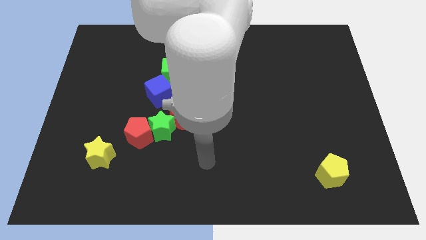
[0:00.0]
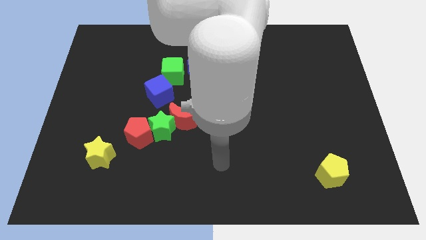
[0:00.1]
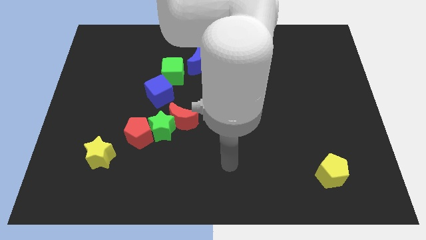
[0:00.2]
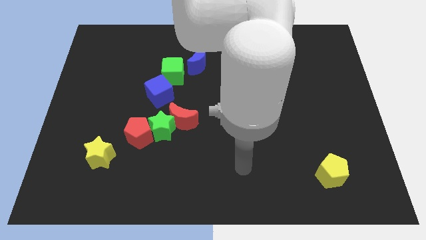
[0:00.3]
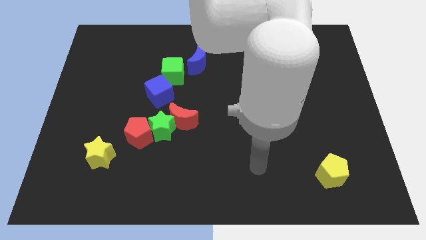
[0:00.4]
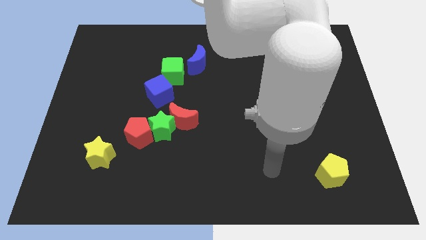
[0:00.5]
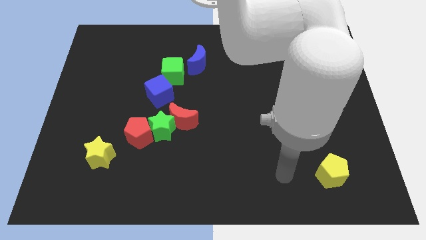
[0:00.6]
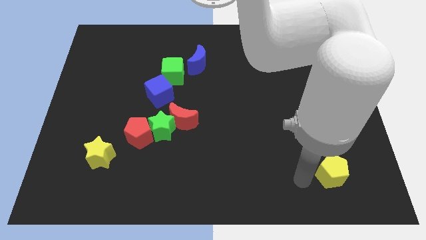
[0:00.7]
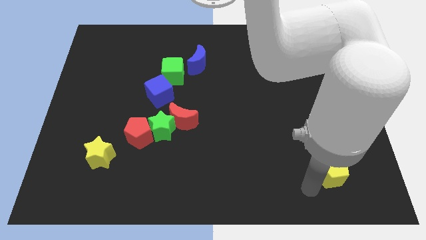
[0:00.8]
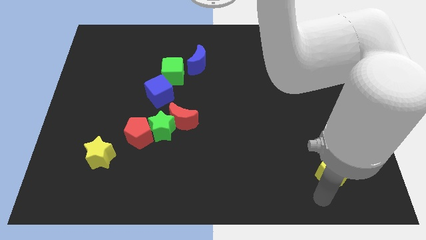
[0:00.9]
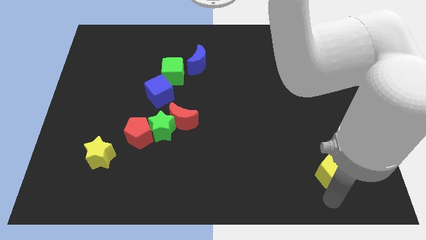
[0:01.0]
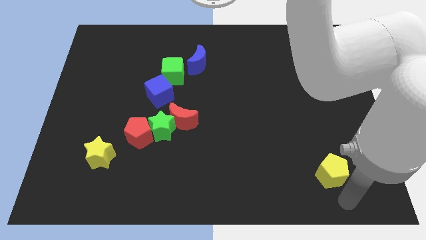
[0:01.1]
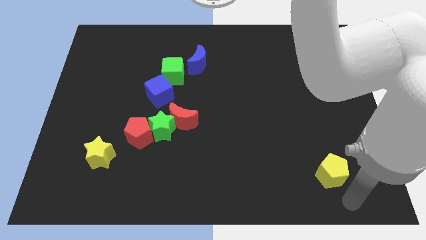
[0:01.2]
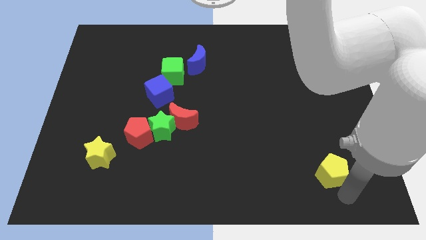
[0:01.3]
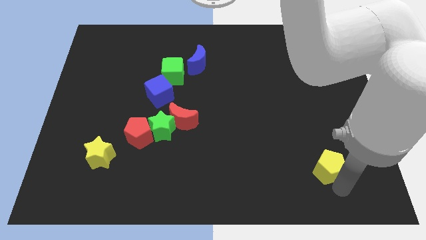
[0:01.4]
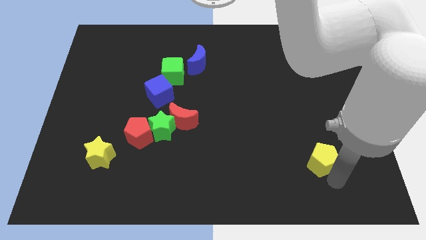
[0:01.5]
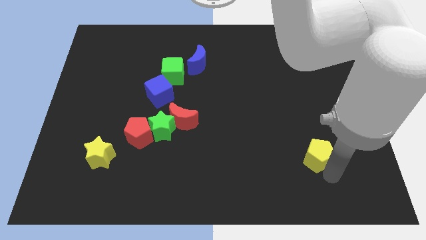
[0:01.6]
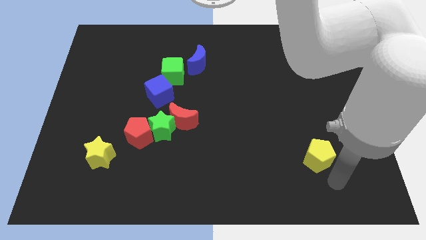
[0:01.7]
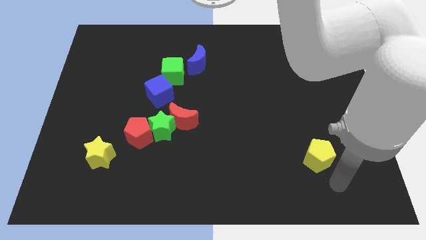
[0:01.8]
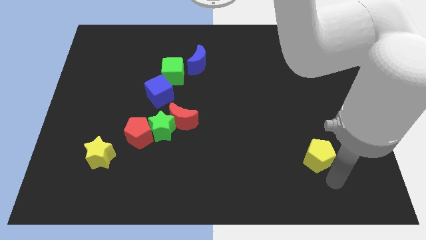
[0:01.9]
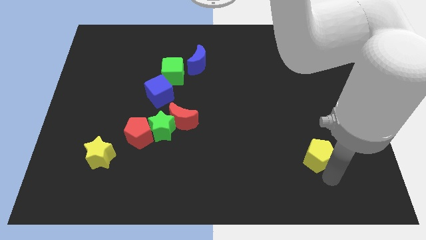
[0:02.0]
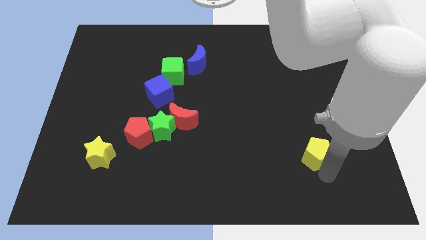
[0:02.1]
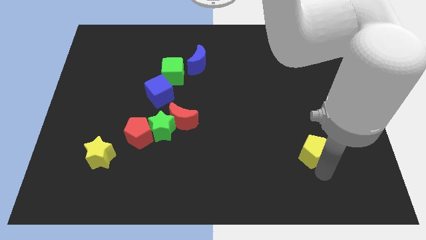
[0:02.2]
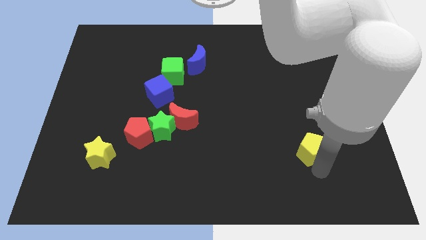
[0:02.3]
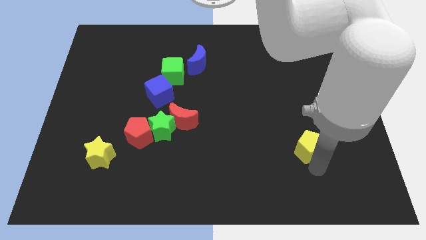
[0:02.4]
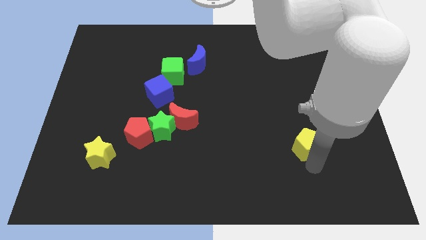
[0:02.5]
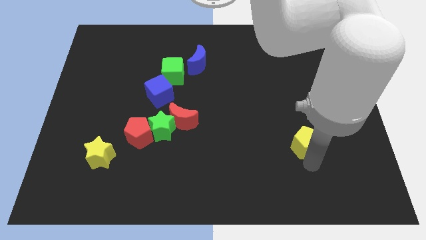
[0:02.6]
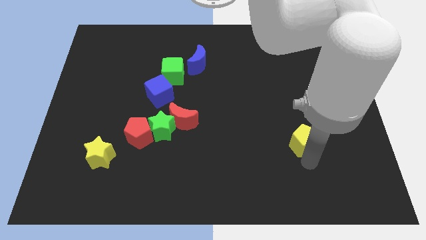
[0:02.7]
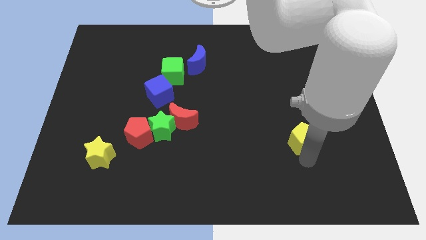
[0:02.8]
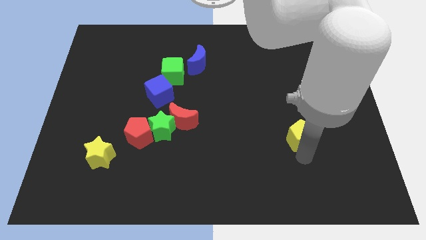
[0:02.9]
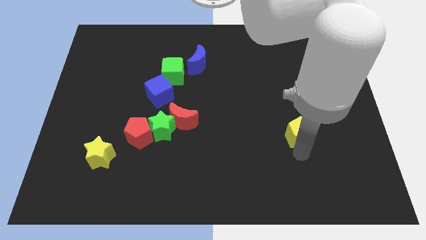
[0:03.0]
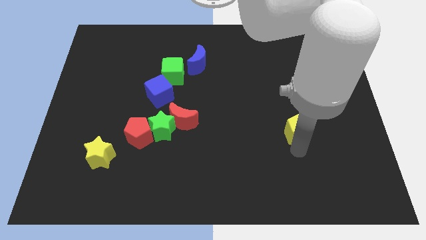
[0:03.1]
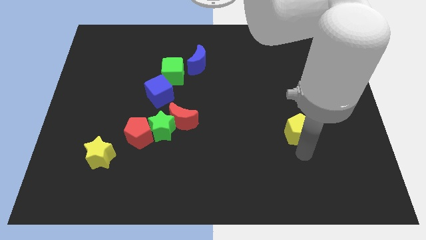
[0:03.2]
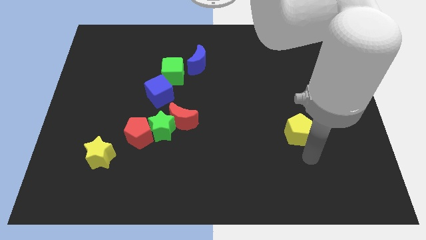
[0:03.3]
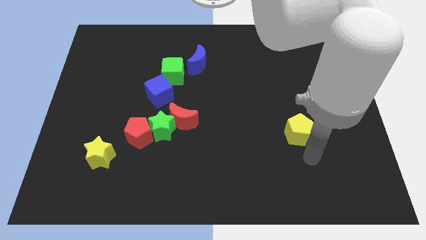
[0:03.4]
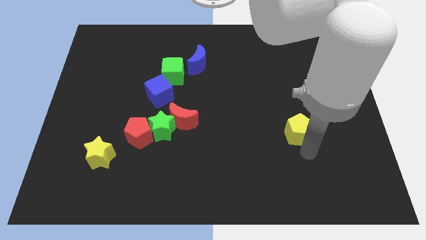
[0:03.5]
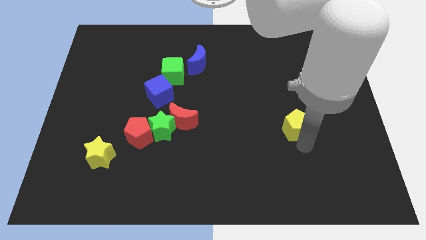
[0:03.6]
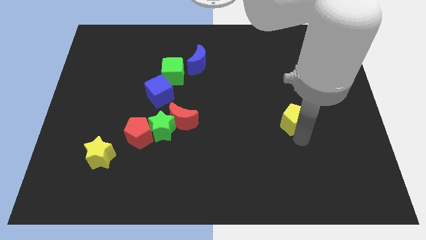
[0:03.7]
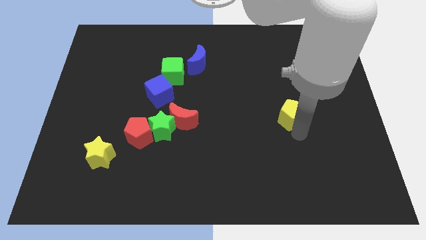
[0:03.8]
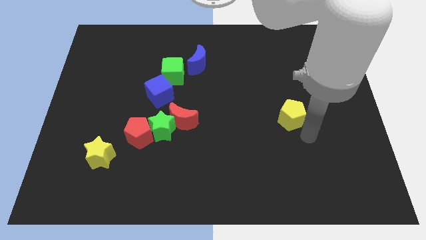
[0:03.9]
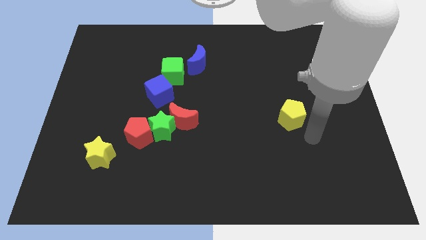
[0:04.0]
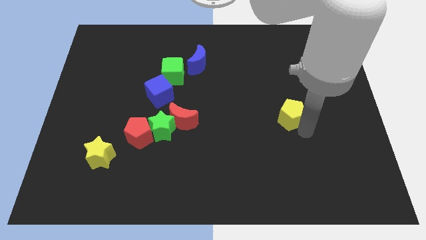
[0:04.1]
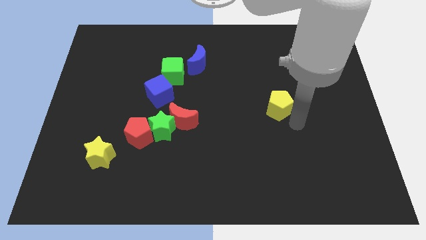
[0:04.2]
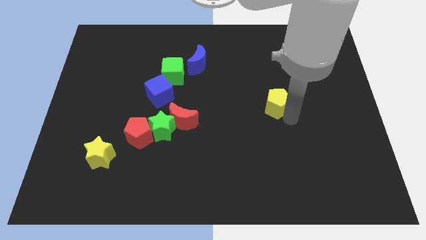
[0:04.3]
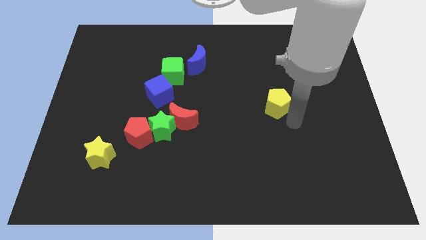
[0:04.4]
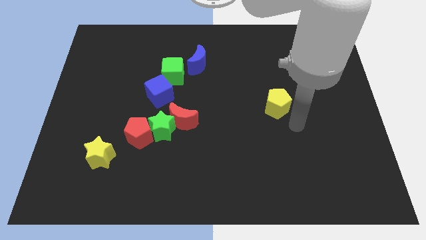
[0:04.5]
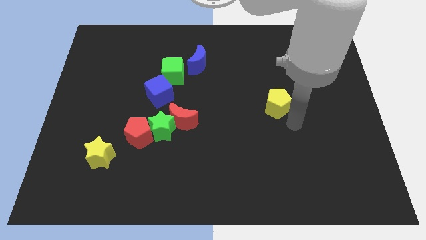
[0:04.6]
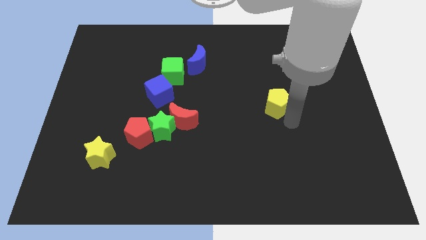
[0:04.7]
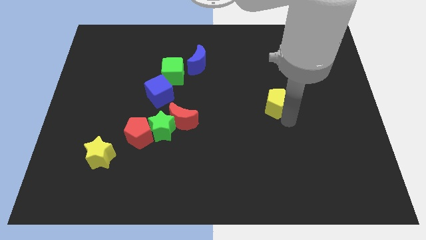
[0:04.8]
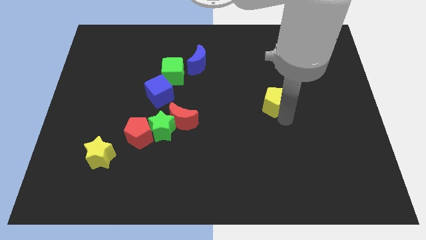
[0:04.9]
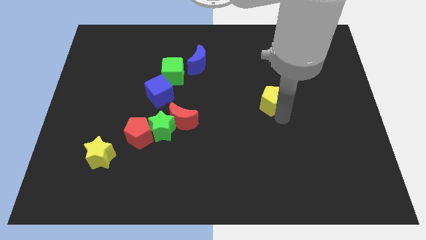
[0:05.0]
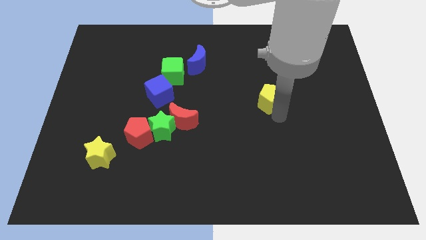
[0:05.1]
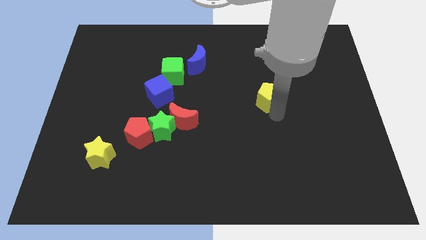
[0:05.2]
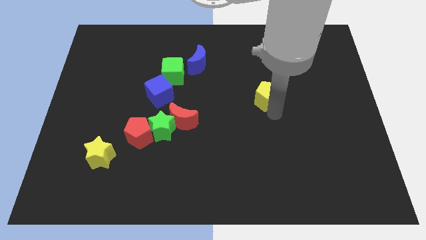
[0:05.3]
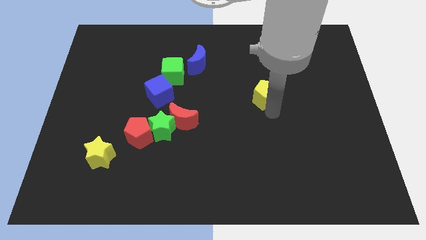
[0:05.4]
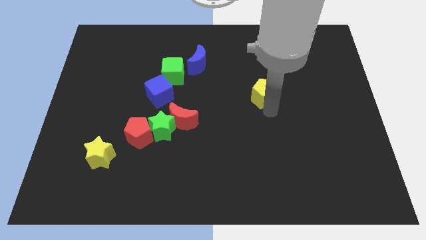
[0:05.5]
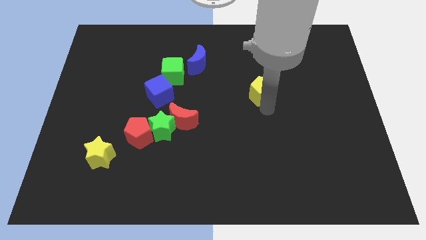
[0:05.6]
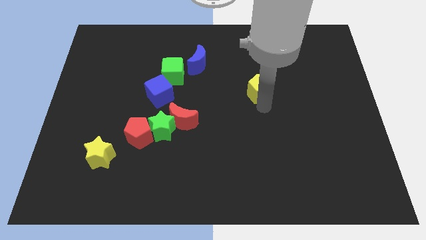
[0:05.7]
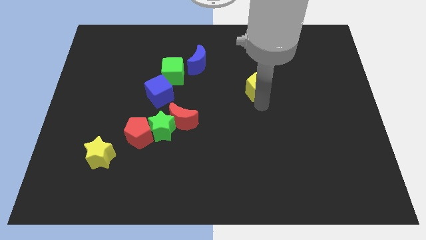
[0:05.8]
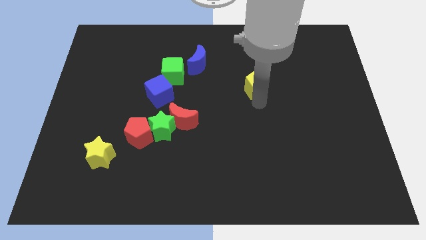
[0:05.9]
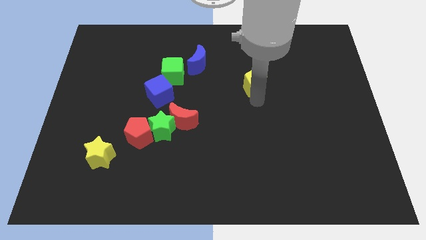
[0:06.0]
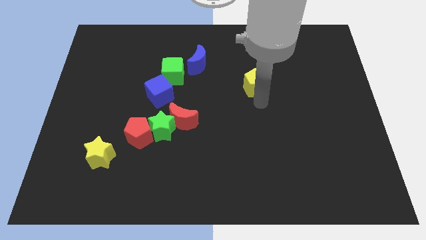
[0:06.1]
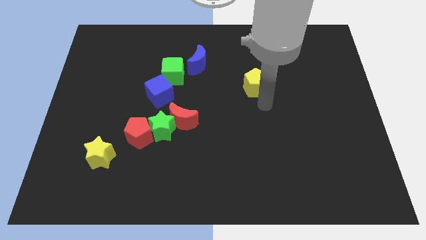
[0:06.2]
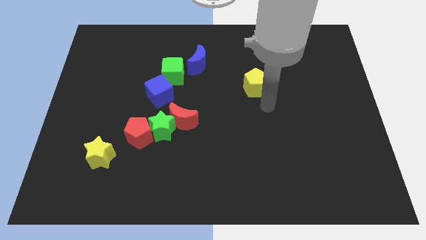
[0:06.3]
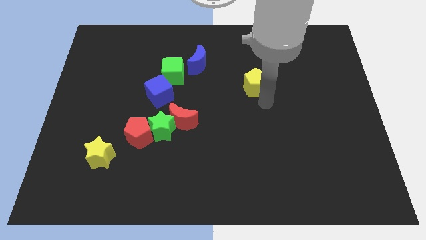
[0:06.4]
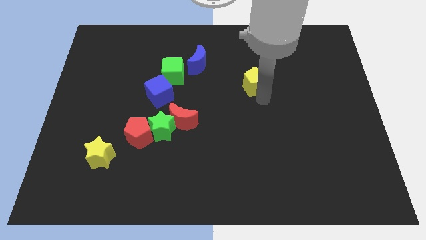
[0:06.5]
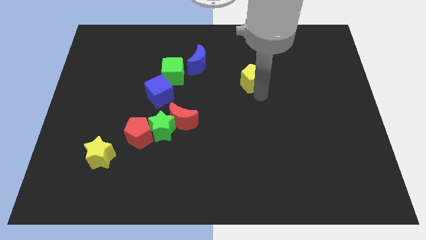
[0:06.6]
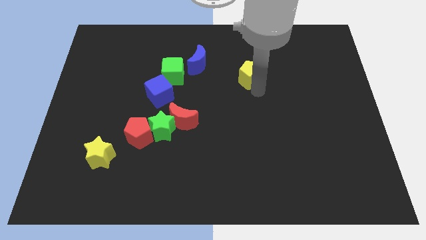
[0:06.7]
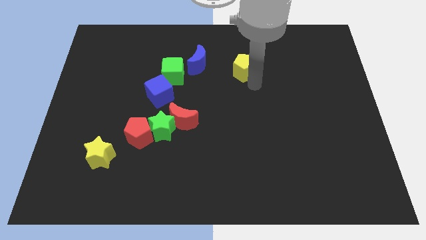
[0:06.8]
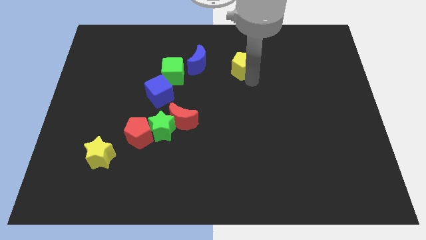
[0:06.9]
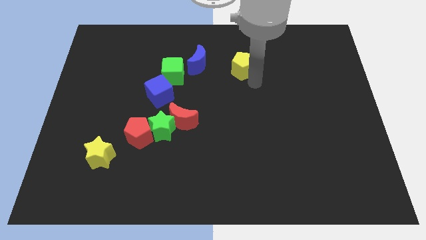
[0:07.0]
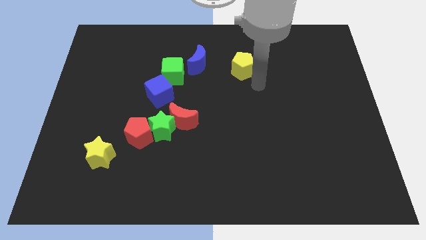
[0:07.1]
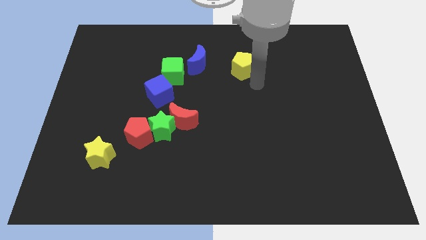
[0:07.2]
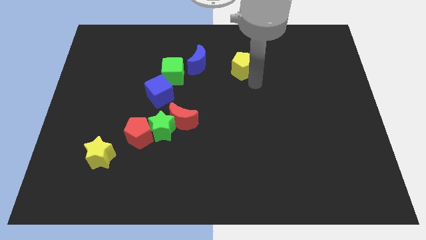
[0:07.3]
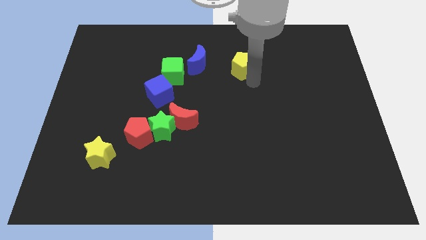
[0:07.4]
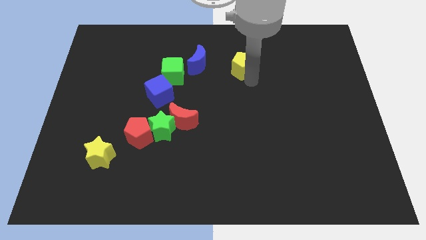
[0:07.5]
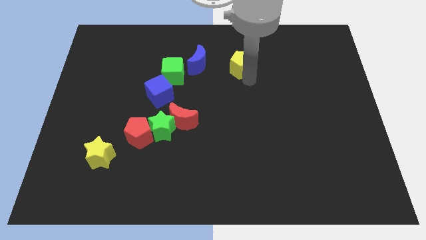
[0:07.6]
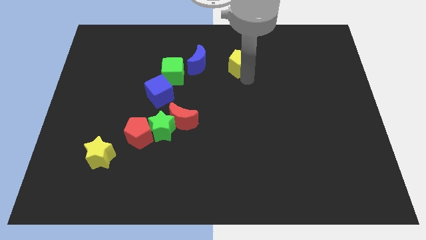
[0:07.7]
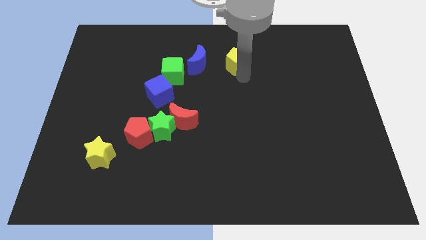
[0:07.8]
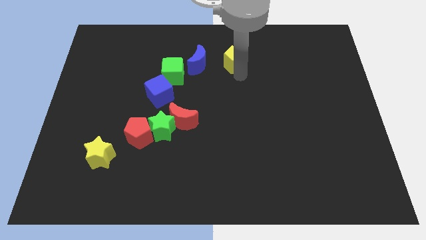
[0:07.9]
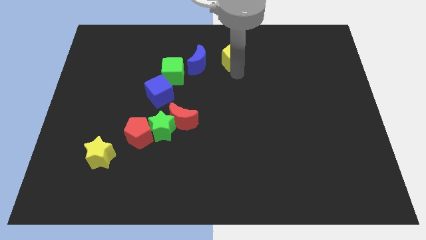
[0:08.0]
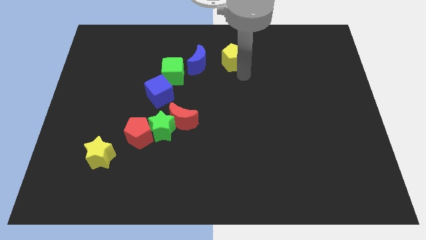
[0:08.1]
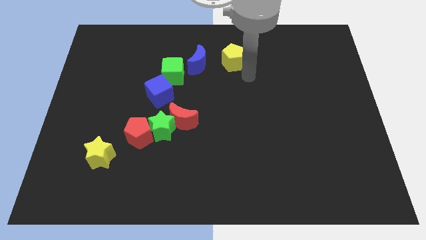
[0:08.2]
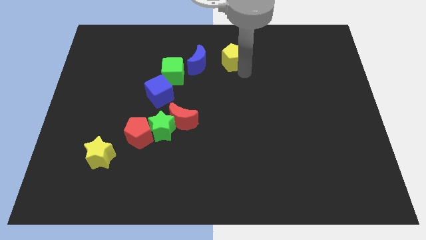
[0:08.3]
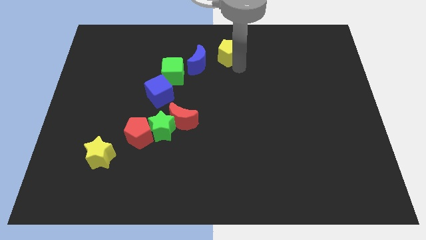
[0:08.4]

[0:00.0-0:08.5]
put the yellow pentagon to the top
